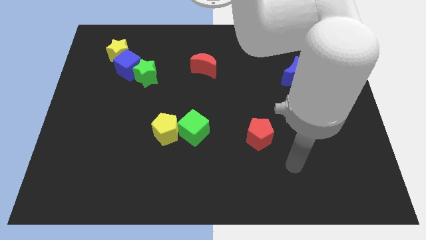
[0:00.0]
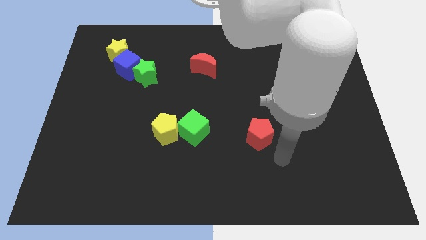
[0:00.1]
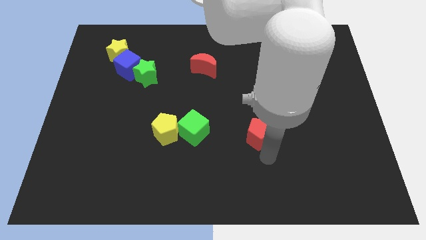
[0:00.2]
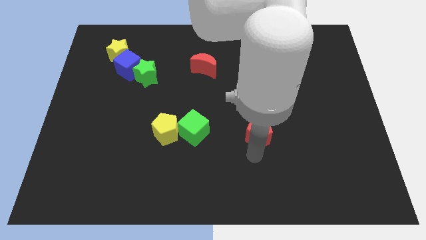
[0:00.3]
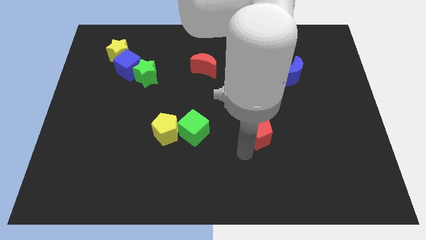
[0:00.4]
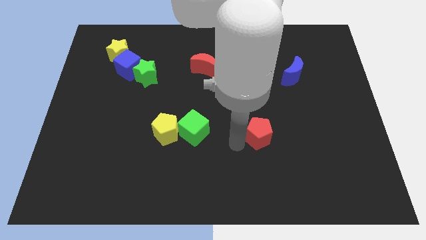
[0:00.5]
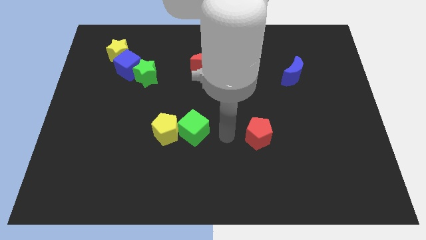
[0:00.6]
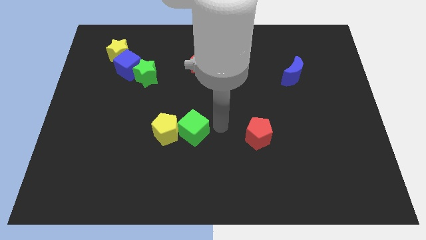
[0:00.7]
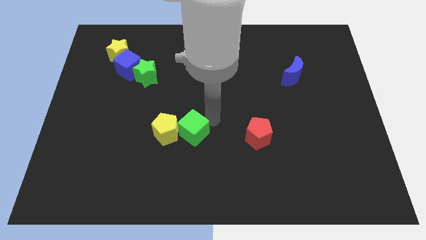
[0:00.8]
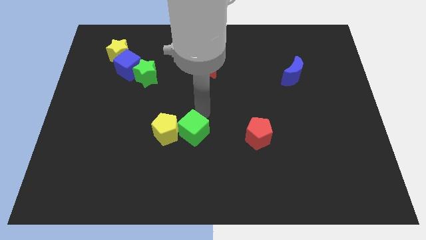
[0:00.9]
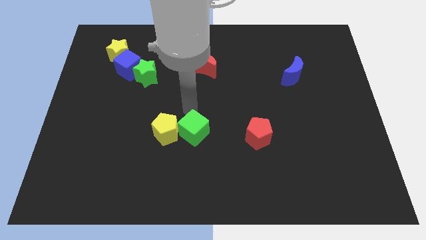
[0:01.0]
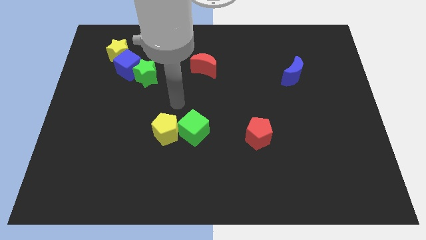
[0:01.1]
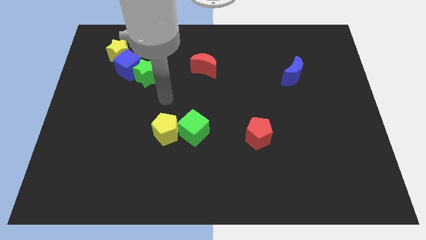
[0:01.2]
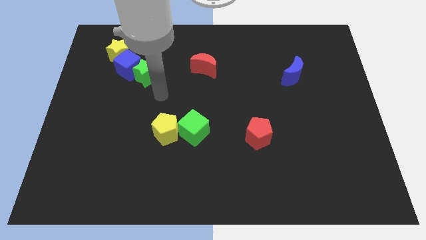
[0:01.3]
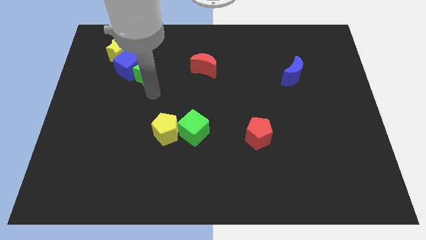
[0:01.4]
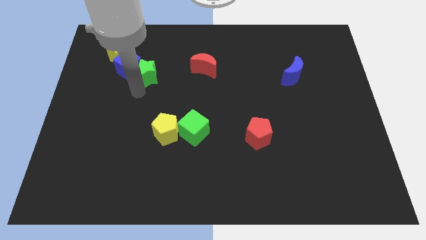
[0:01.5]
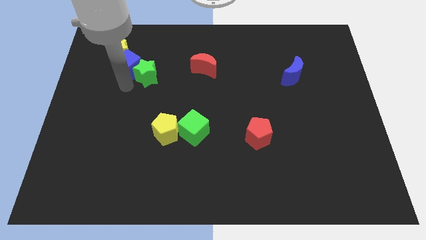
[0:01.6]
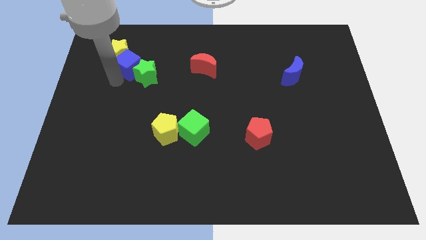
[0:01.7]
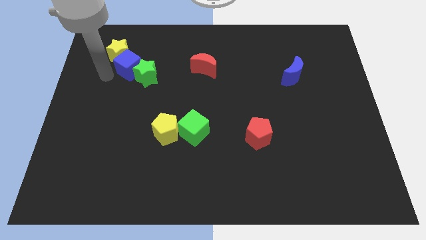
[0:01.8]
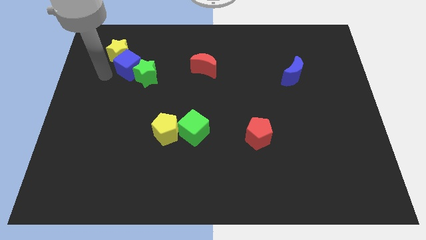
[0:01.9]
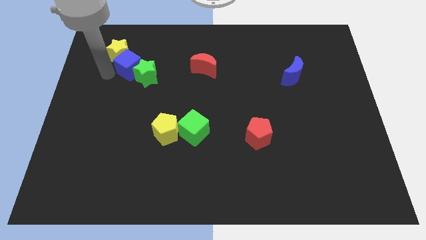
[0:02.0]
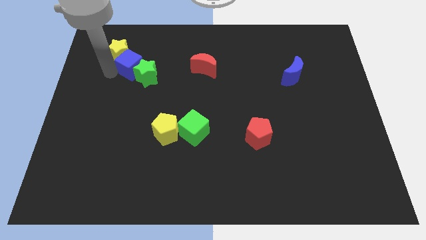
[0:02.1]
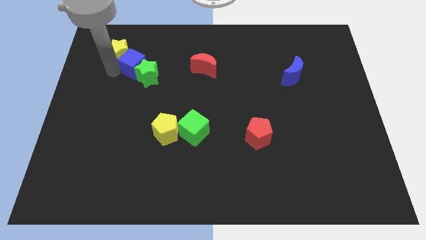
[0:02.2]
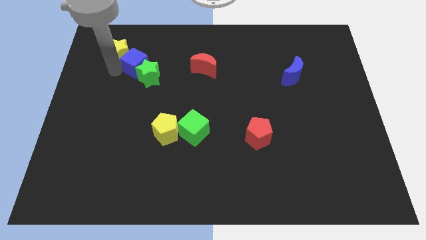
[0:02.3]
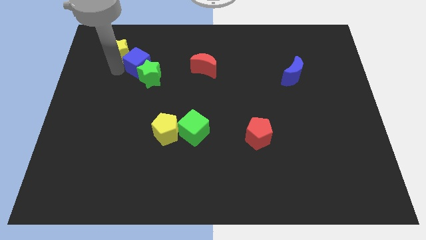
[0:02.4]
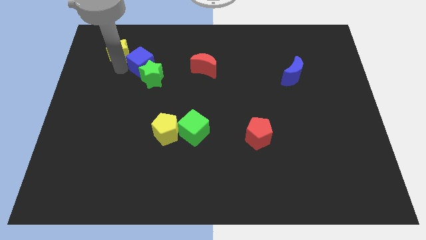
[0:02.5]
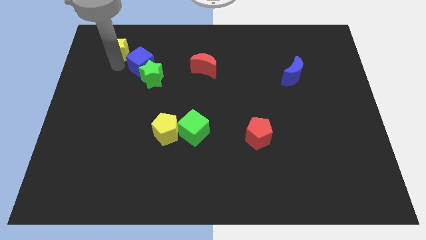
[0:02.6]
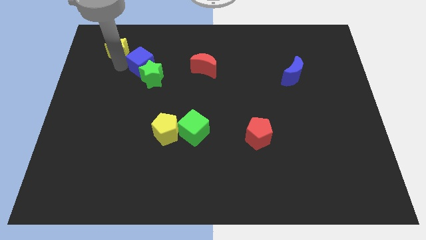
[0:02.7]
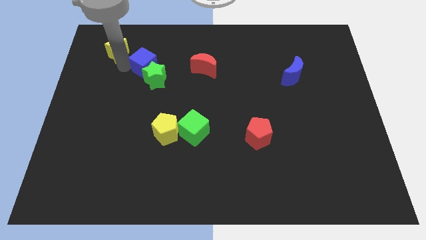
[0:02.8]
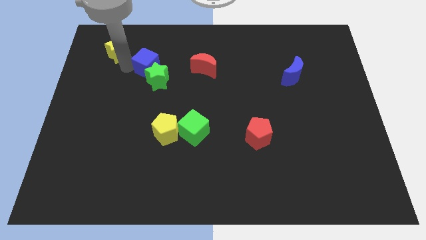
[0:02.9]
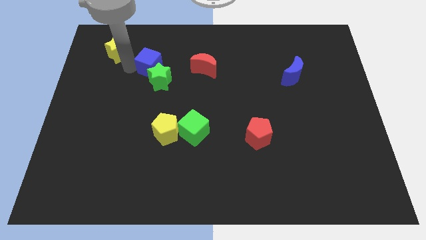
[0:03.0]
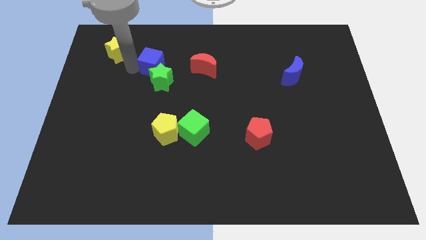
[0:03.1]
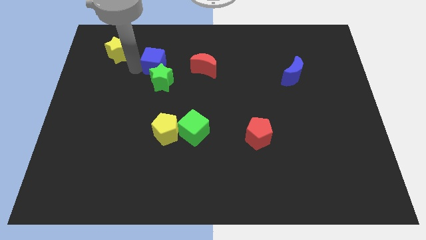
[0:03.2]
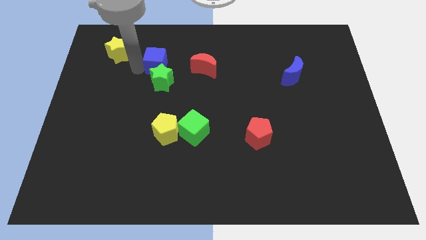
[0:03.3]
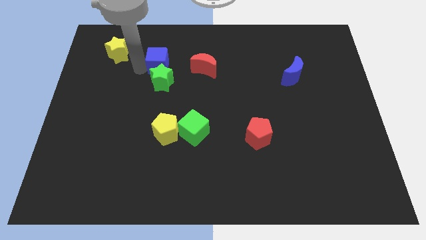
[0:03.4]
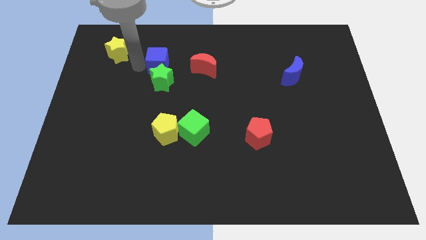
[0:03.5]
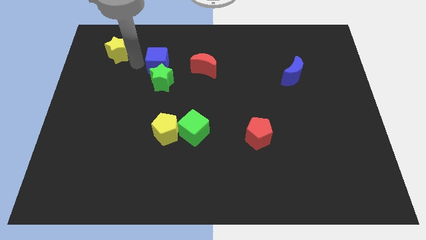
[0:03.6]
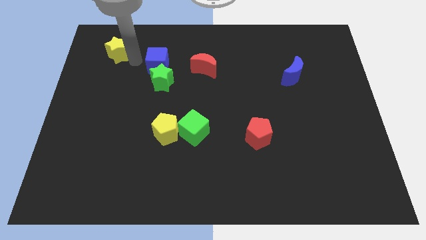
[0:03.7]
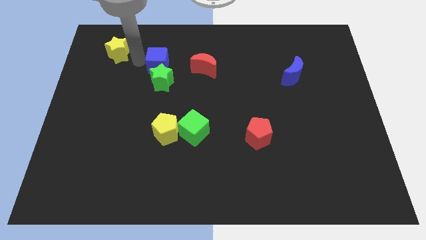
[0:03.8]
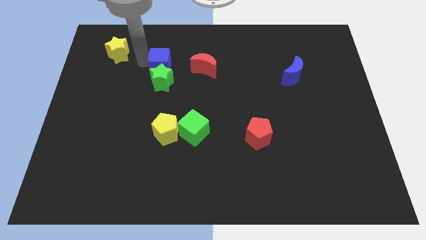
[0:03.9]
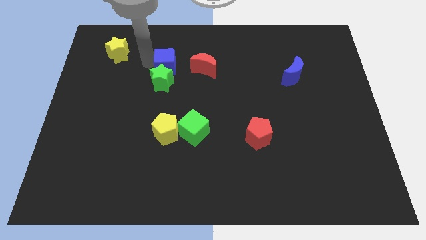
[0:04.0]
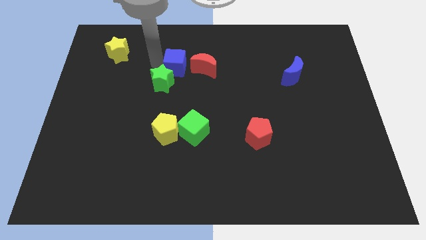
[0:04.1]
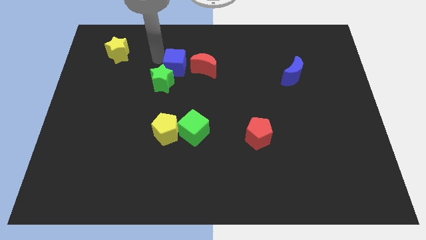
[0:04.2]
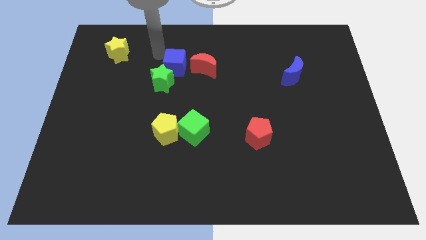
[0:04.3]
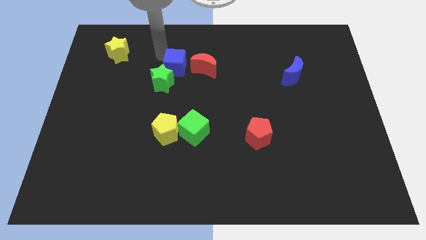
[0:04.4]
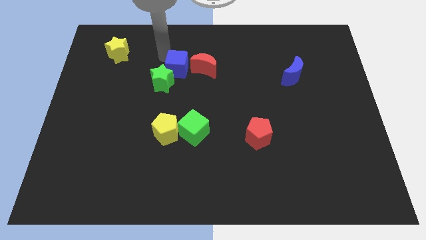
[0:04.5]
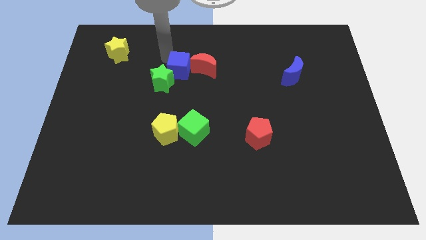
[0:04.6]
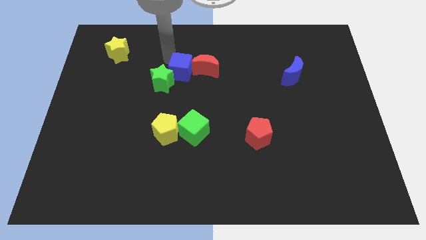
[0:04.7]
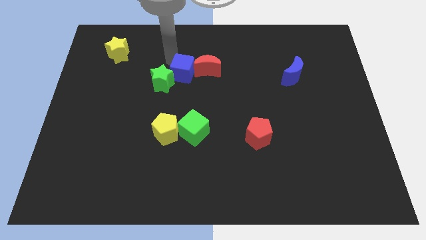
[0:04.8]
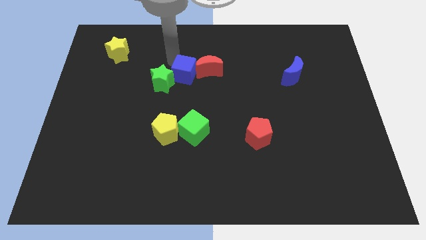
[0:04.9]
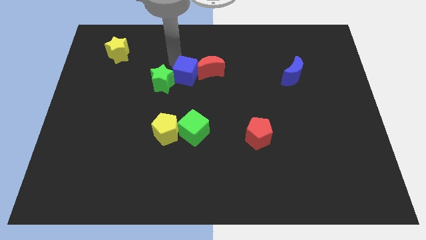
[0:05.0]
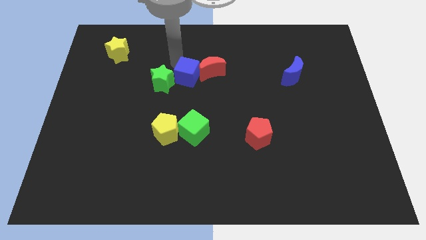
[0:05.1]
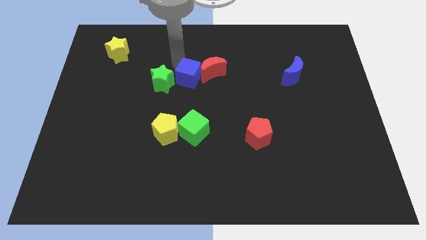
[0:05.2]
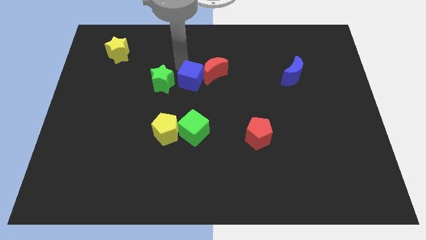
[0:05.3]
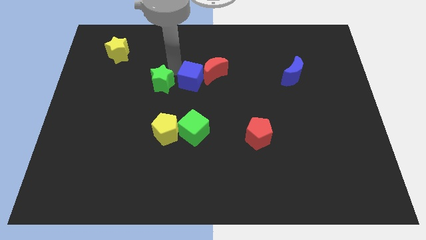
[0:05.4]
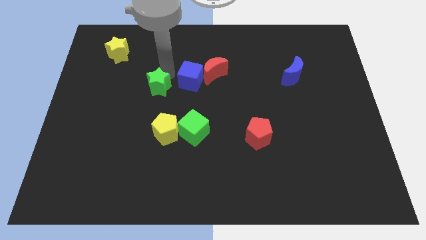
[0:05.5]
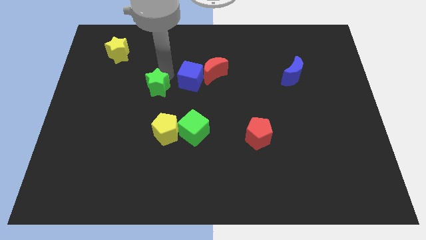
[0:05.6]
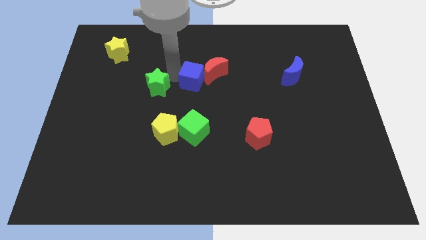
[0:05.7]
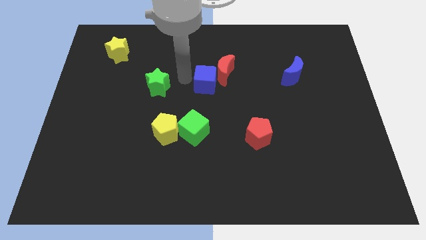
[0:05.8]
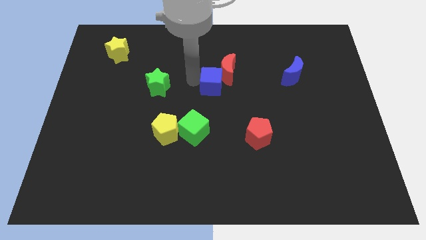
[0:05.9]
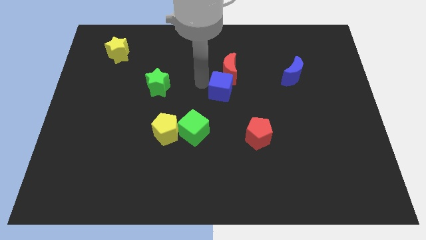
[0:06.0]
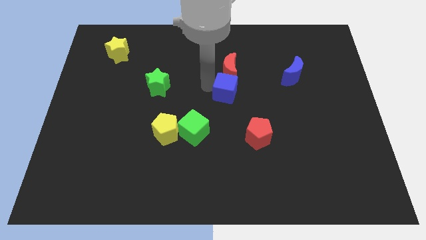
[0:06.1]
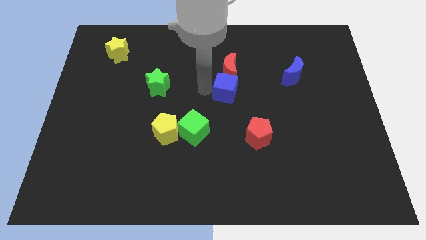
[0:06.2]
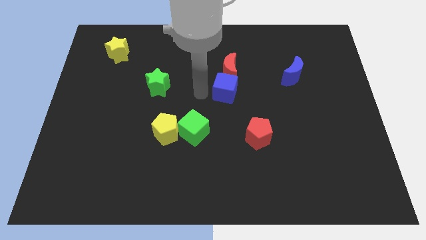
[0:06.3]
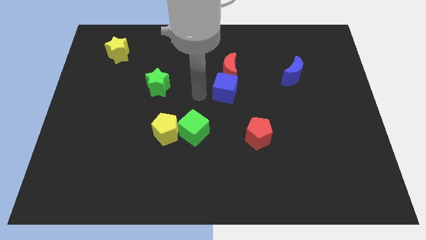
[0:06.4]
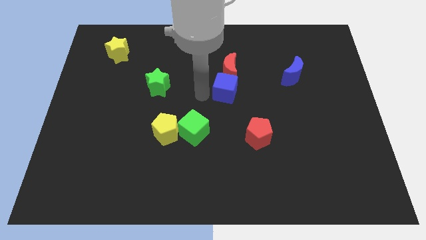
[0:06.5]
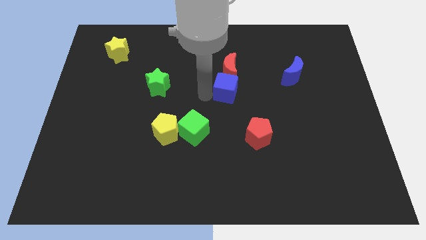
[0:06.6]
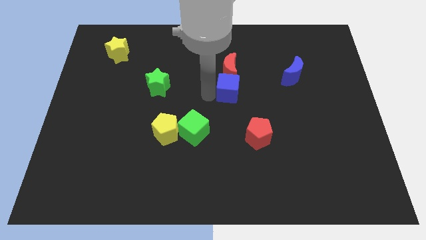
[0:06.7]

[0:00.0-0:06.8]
slide the blue cube to the bottom right side of the red moon
